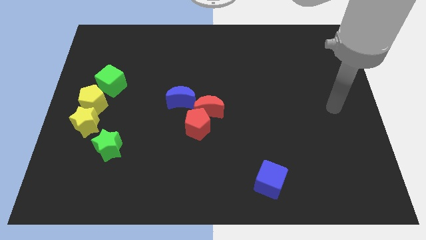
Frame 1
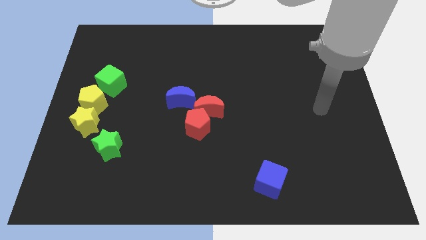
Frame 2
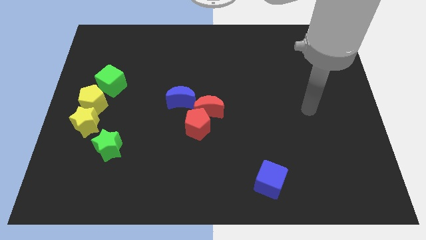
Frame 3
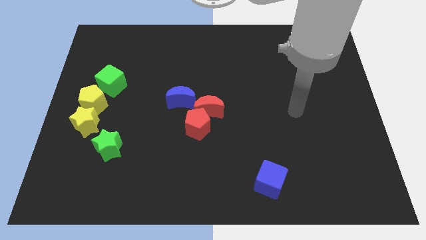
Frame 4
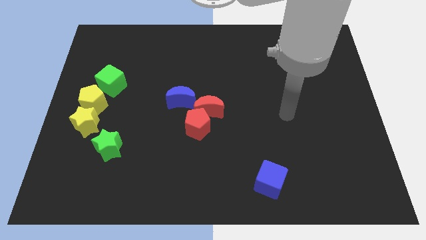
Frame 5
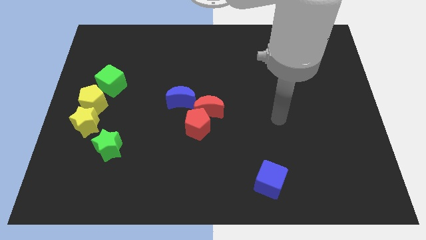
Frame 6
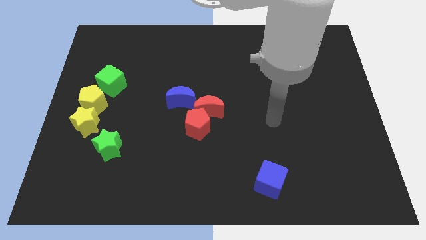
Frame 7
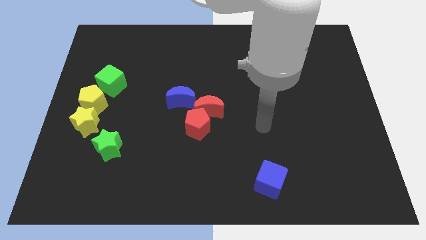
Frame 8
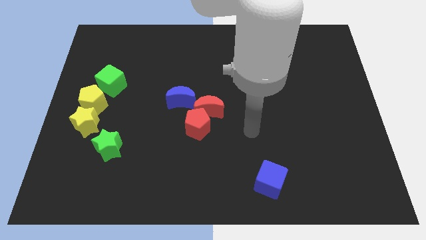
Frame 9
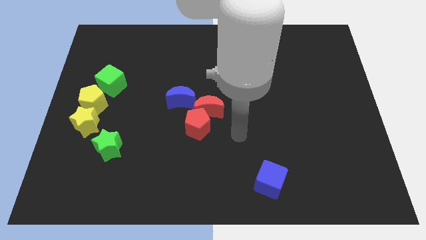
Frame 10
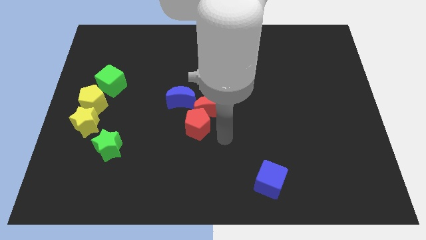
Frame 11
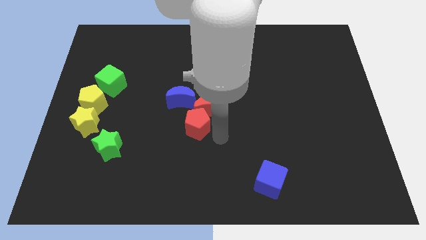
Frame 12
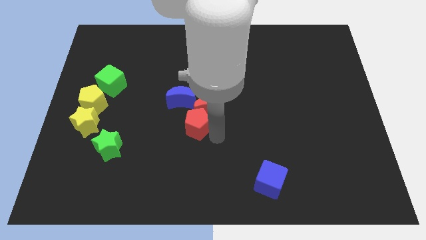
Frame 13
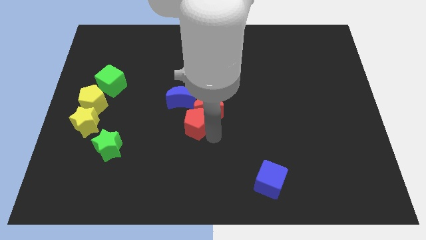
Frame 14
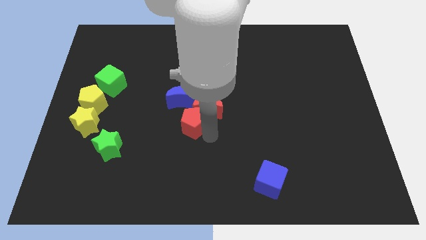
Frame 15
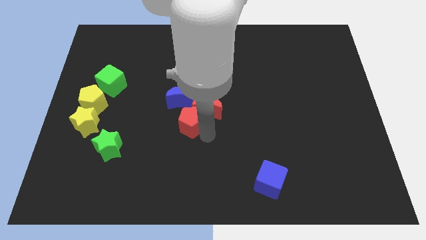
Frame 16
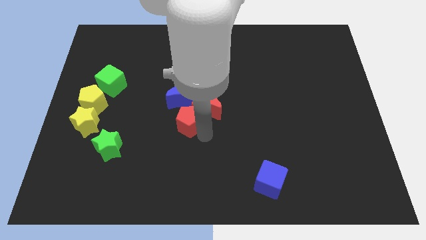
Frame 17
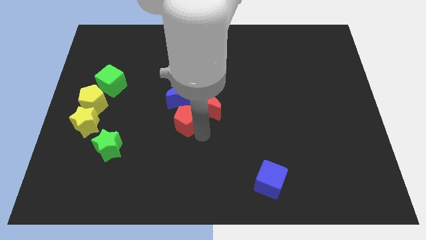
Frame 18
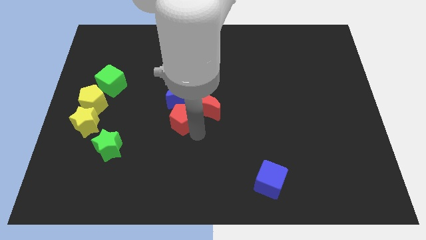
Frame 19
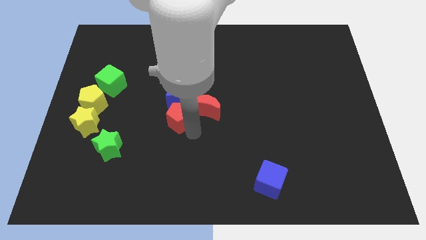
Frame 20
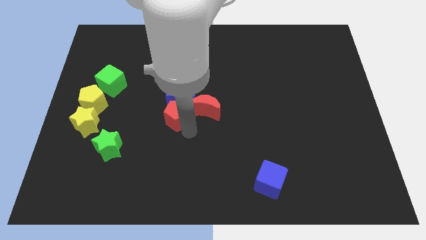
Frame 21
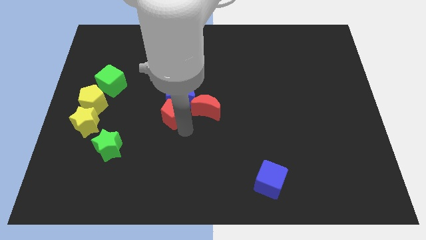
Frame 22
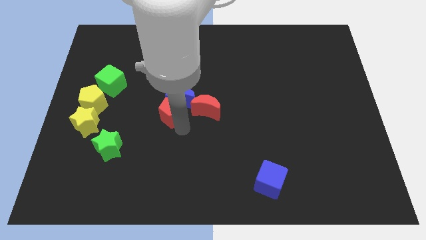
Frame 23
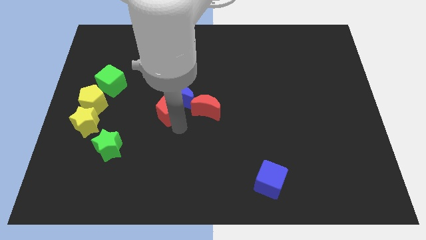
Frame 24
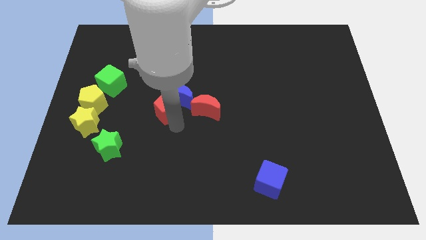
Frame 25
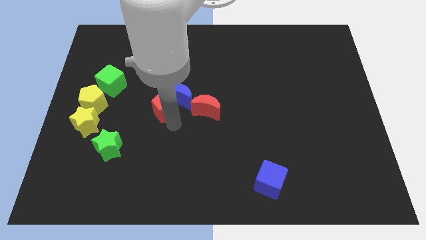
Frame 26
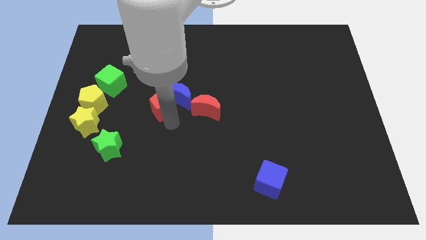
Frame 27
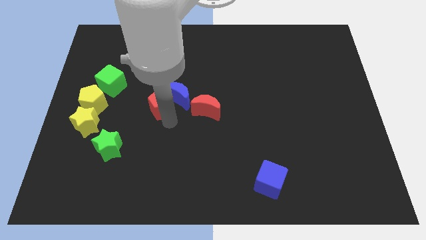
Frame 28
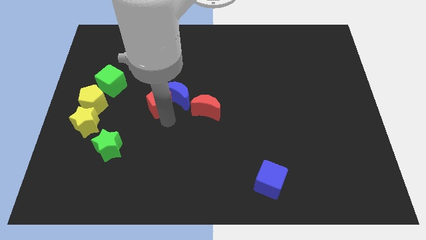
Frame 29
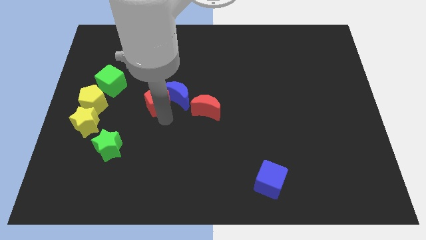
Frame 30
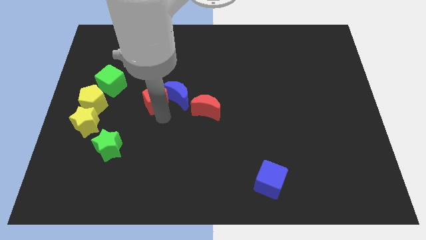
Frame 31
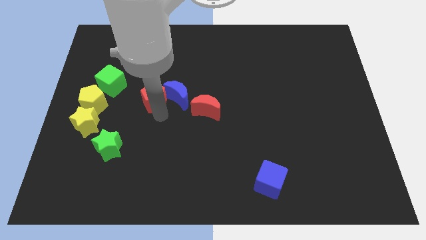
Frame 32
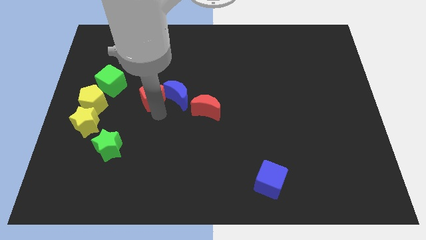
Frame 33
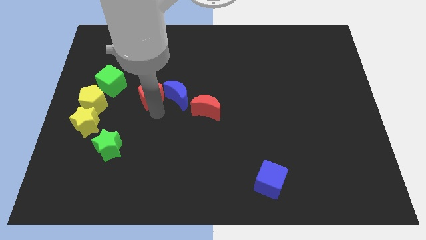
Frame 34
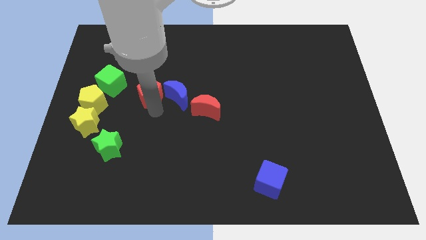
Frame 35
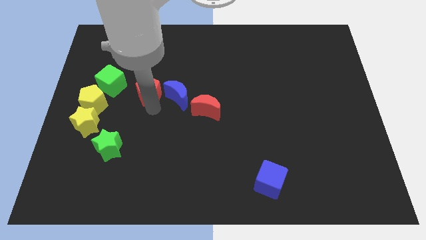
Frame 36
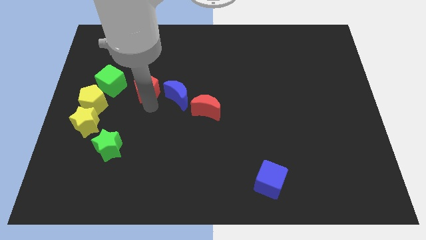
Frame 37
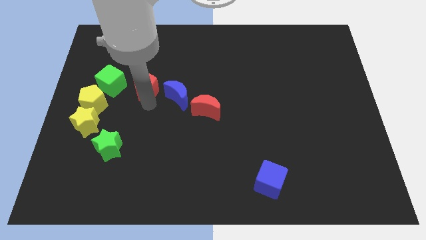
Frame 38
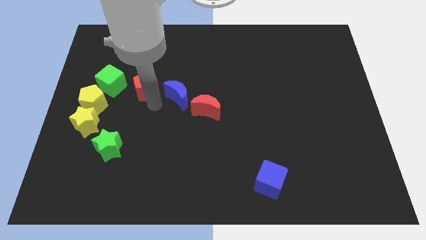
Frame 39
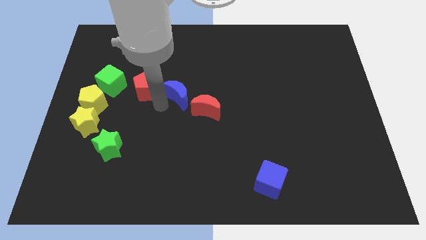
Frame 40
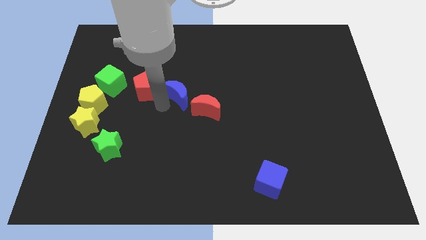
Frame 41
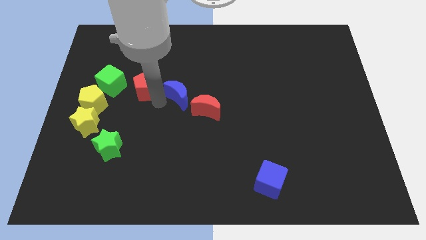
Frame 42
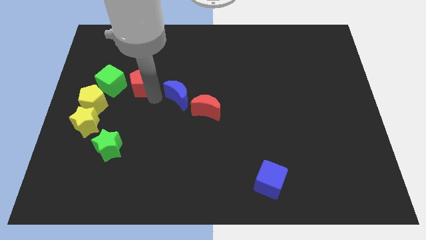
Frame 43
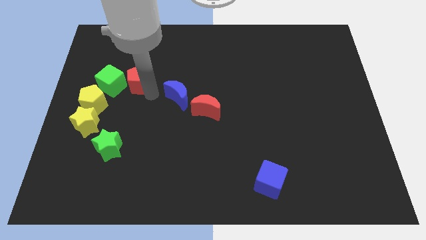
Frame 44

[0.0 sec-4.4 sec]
slide the red pentagon upwards and then to the left

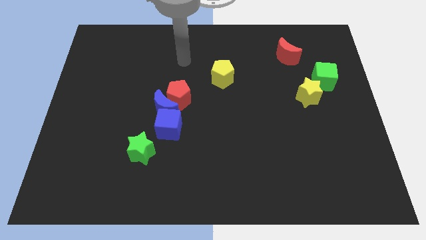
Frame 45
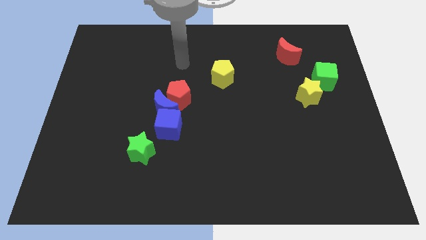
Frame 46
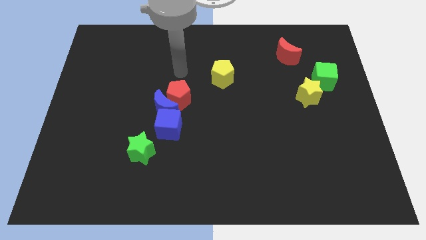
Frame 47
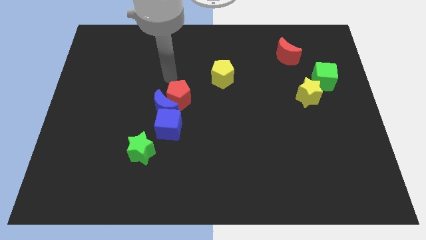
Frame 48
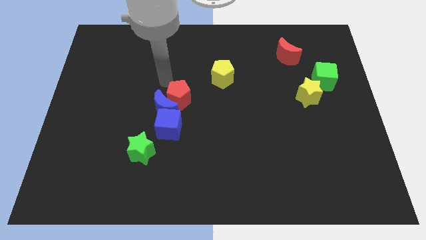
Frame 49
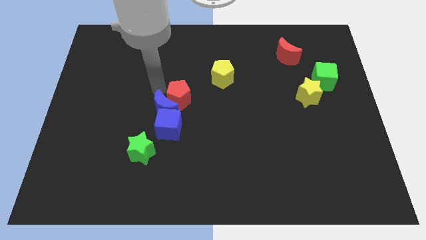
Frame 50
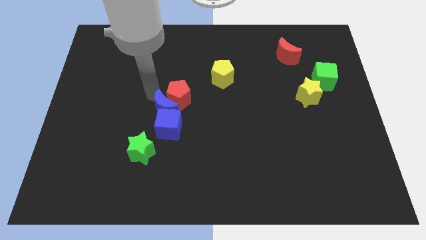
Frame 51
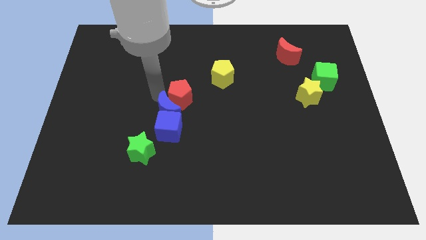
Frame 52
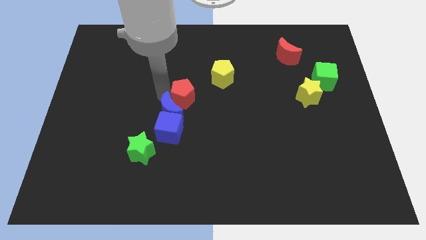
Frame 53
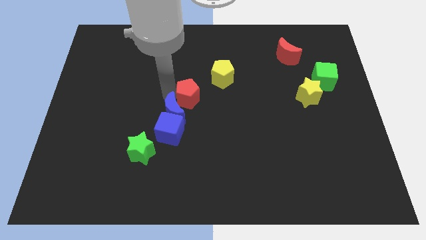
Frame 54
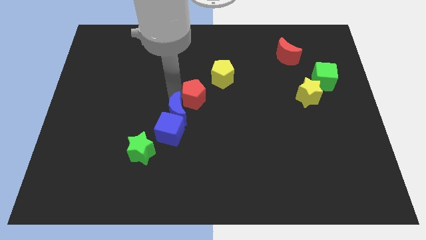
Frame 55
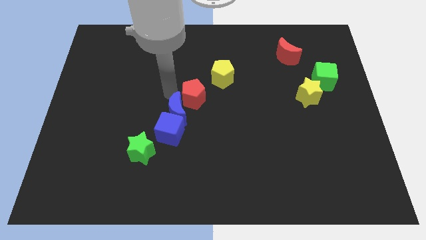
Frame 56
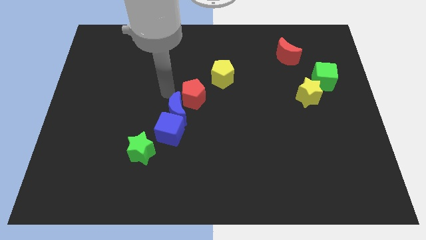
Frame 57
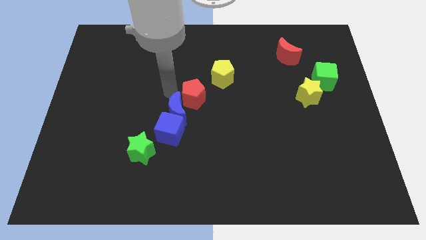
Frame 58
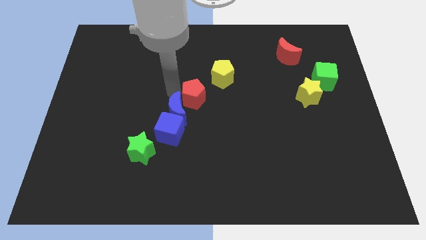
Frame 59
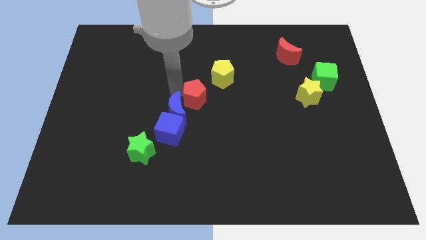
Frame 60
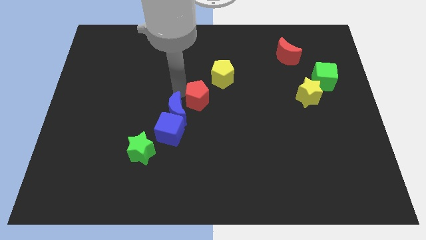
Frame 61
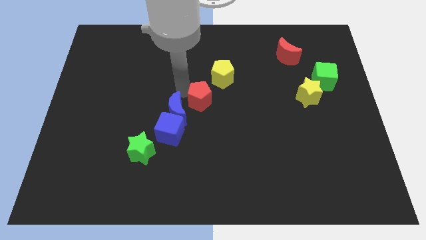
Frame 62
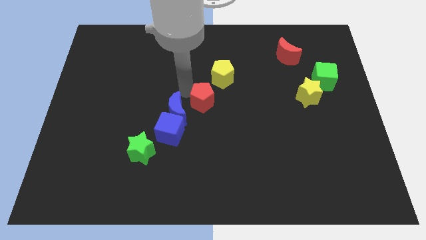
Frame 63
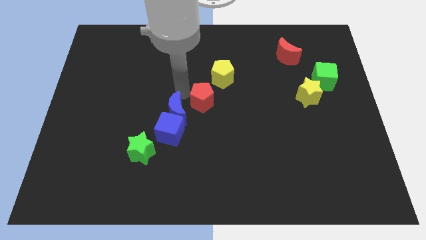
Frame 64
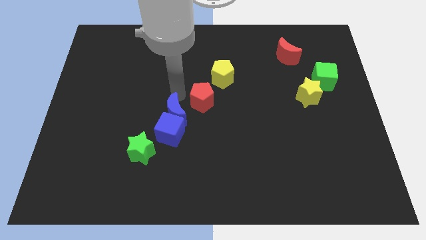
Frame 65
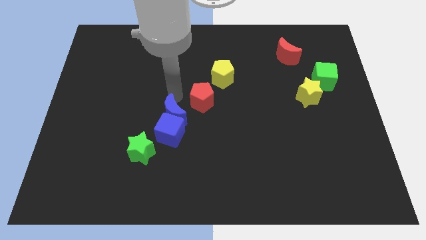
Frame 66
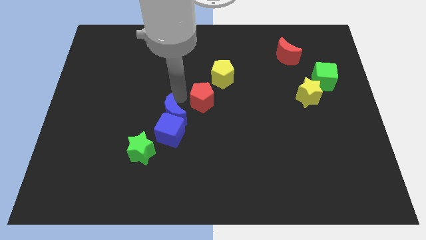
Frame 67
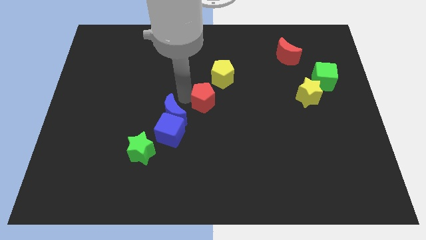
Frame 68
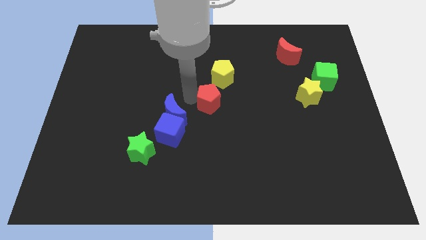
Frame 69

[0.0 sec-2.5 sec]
push the red pentagon somewhat right

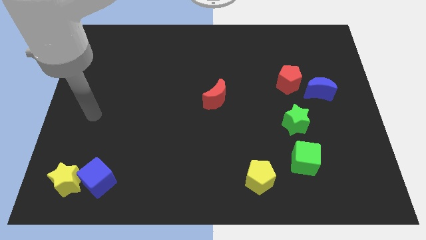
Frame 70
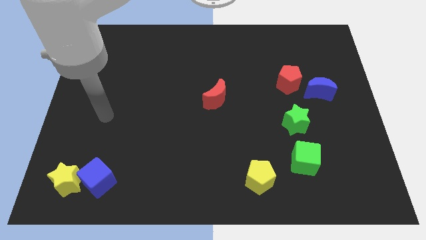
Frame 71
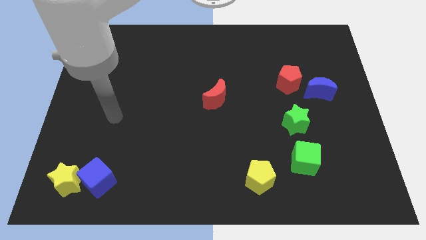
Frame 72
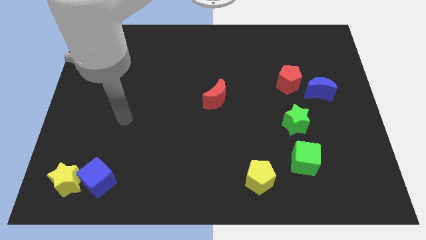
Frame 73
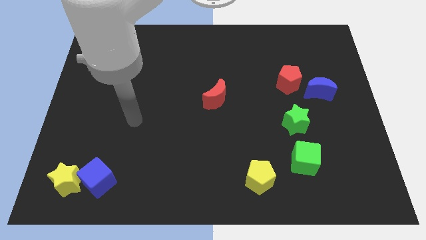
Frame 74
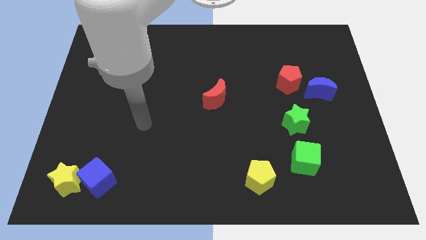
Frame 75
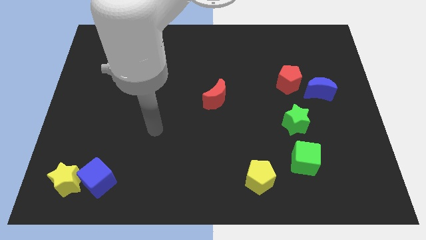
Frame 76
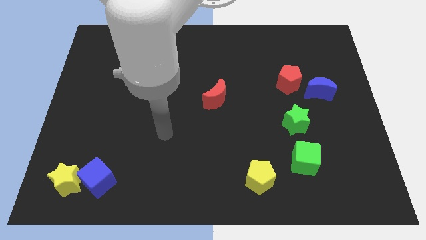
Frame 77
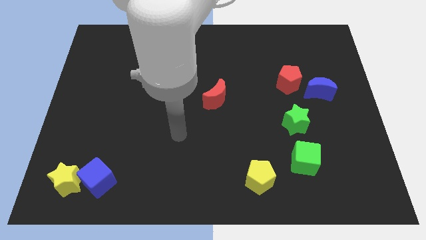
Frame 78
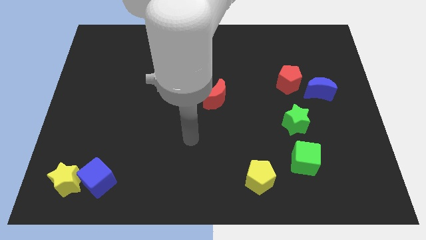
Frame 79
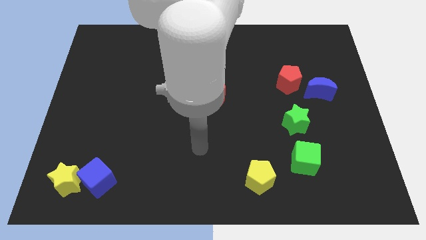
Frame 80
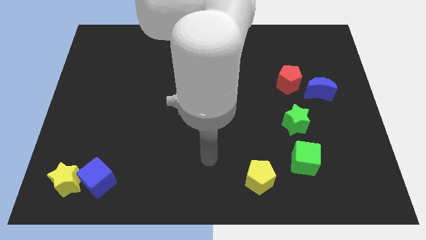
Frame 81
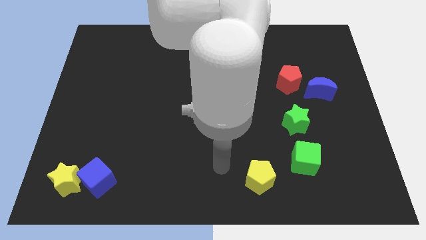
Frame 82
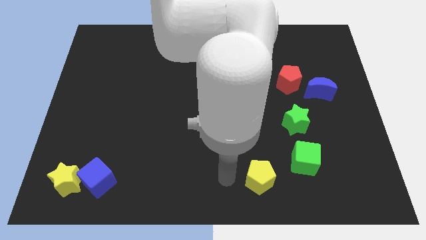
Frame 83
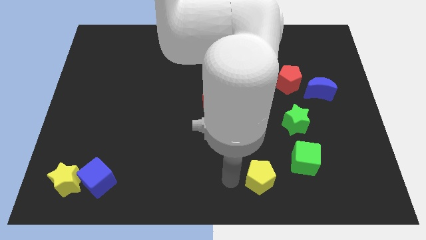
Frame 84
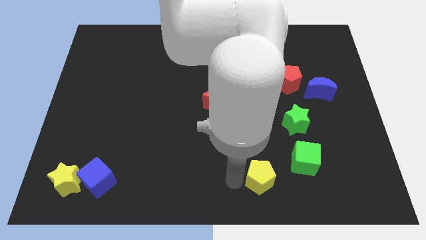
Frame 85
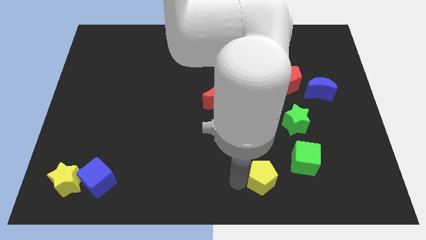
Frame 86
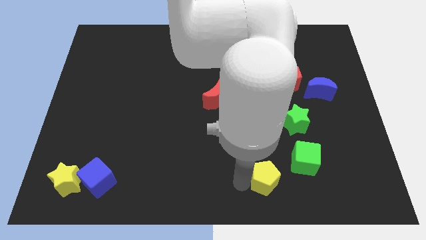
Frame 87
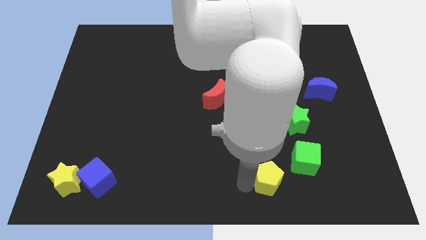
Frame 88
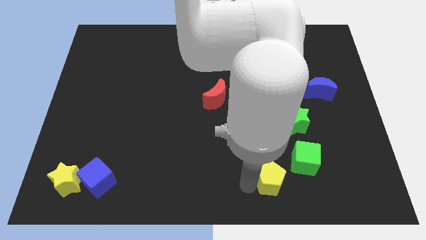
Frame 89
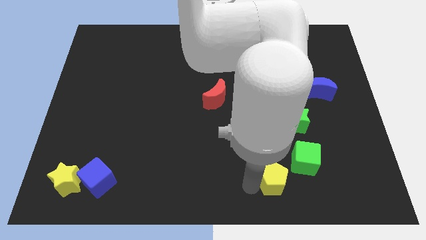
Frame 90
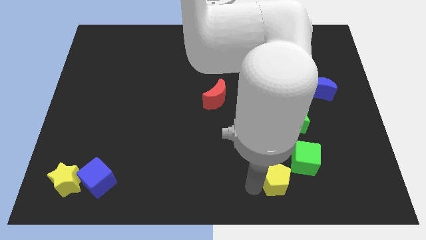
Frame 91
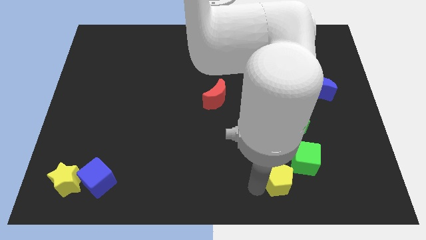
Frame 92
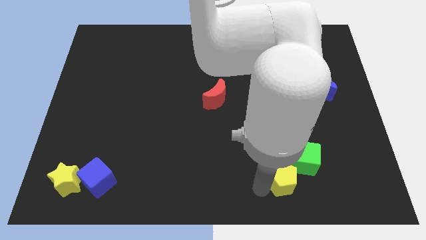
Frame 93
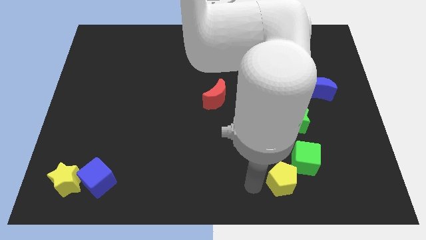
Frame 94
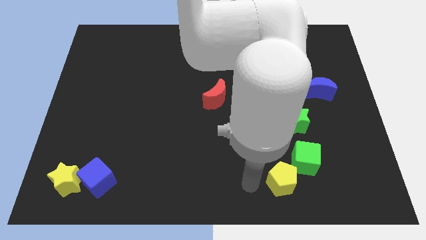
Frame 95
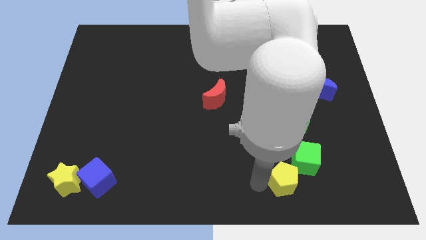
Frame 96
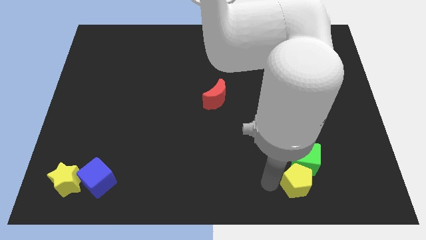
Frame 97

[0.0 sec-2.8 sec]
slightly push the yellow pentagon right
